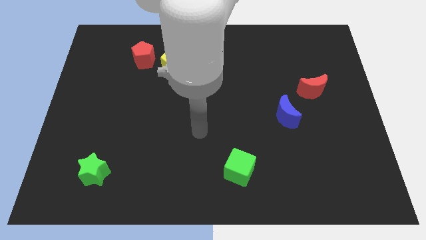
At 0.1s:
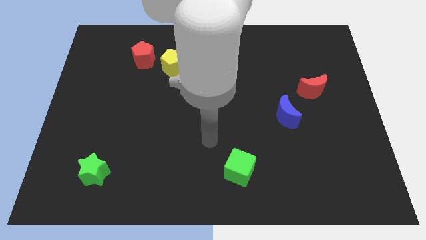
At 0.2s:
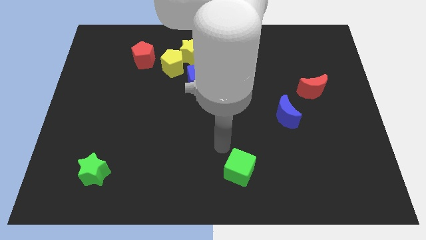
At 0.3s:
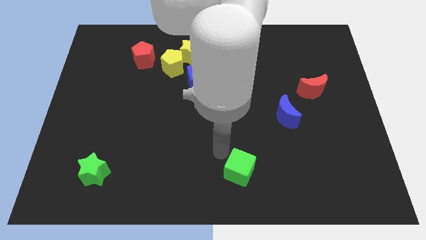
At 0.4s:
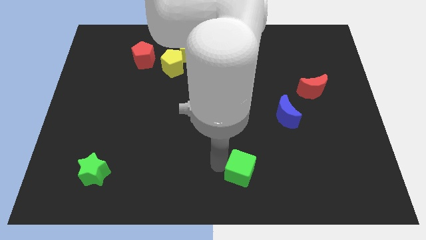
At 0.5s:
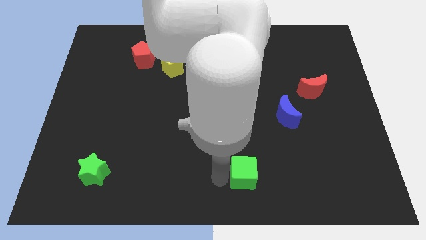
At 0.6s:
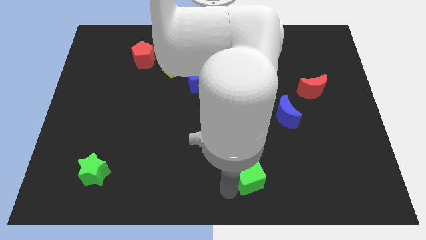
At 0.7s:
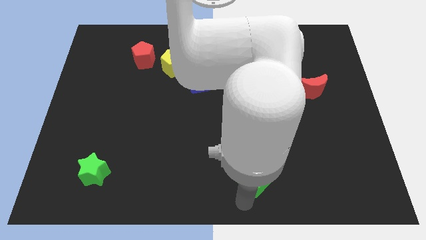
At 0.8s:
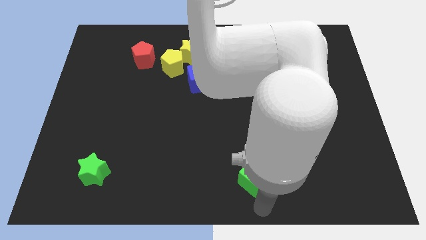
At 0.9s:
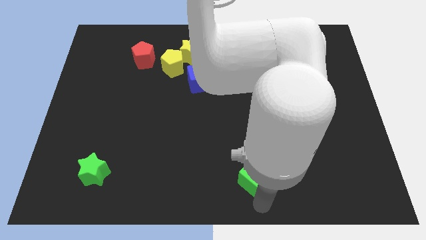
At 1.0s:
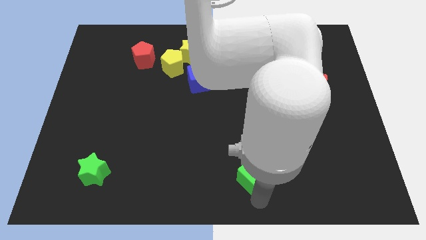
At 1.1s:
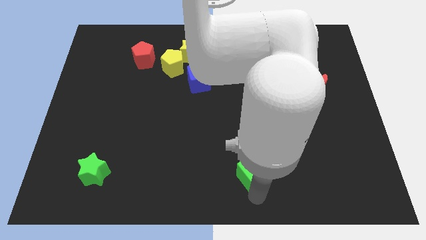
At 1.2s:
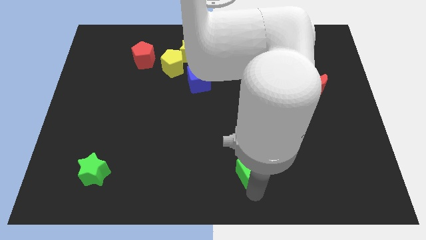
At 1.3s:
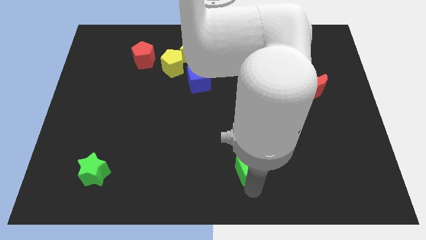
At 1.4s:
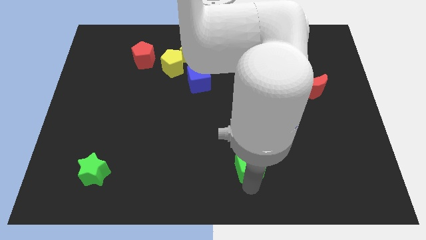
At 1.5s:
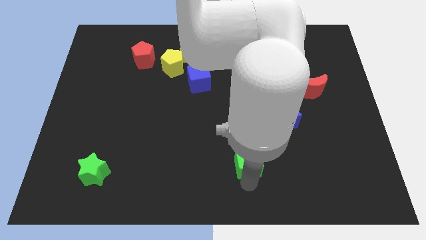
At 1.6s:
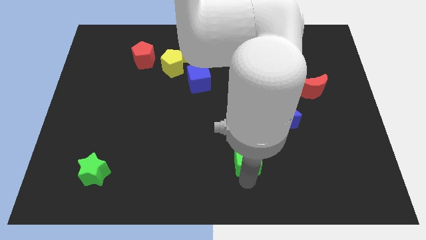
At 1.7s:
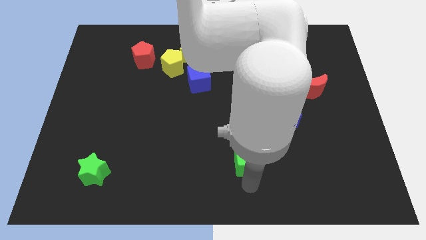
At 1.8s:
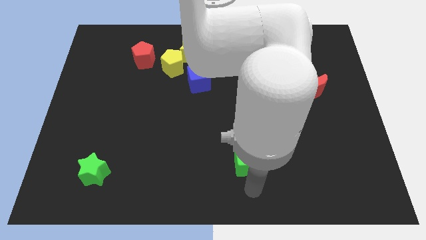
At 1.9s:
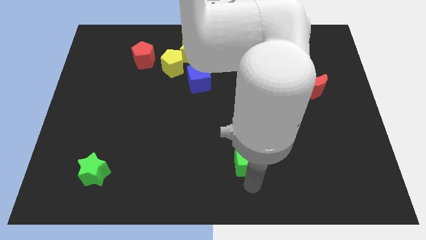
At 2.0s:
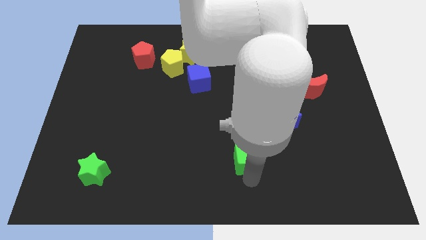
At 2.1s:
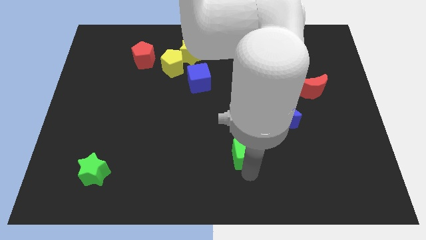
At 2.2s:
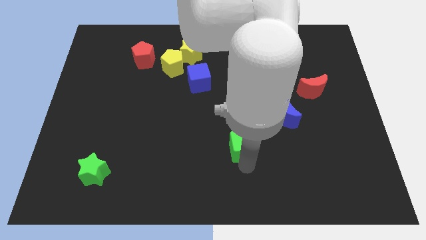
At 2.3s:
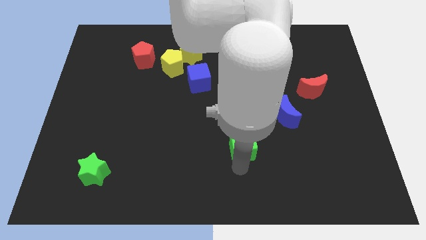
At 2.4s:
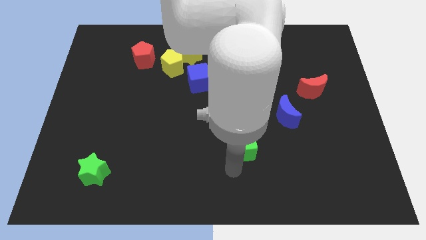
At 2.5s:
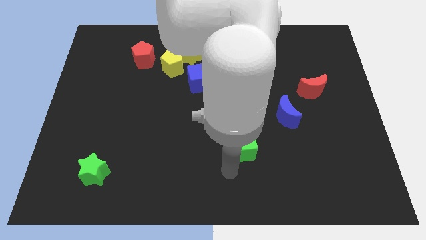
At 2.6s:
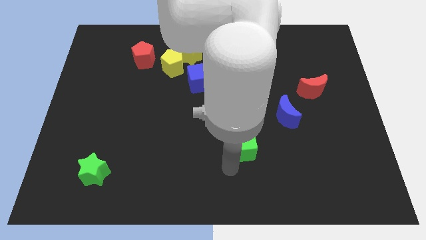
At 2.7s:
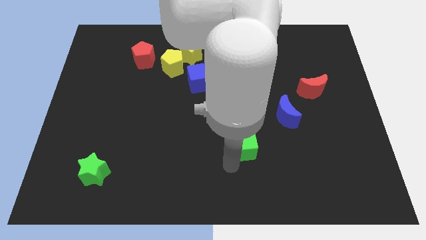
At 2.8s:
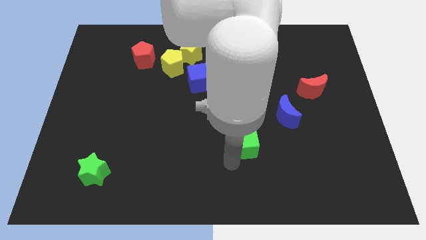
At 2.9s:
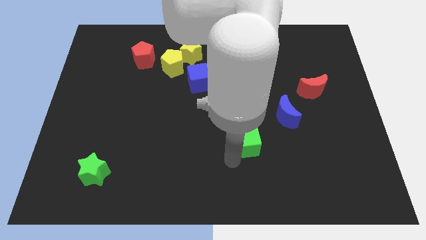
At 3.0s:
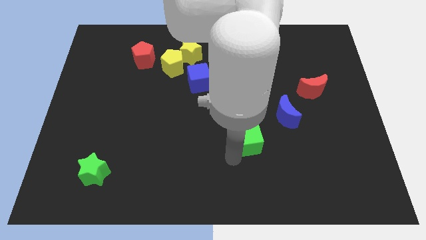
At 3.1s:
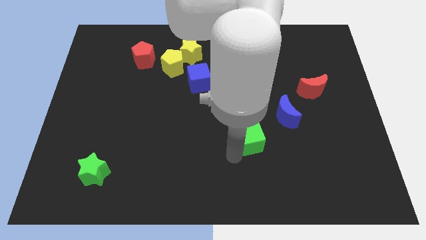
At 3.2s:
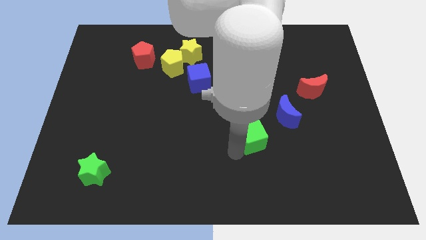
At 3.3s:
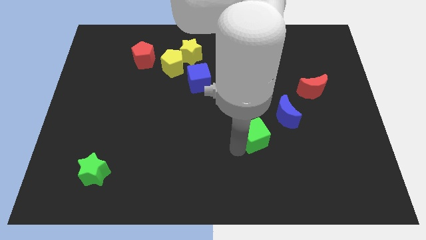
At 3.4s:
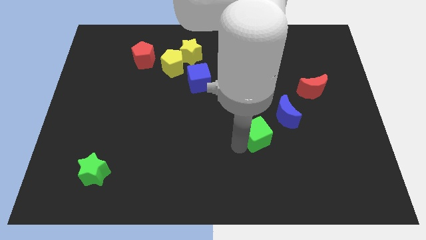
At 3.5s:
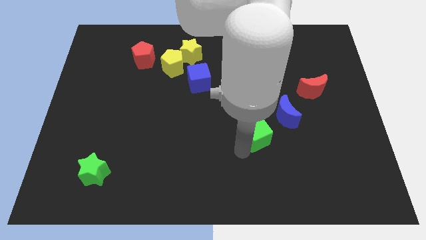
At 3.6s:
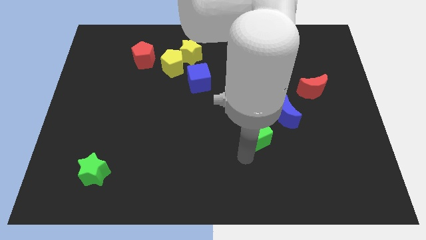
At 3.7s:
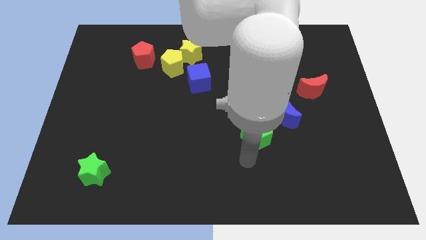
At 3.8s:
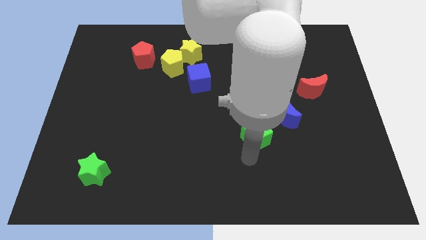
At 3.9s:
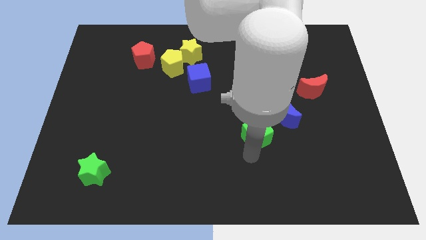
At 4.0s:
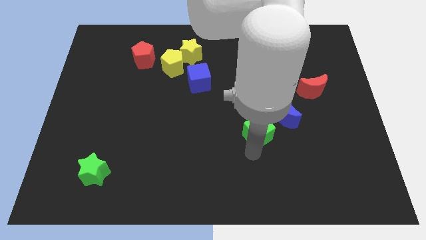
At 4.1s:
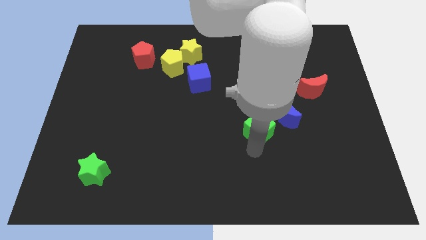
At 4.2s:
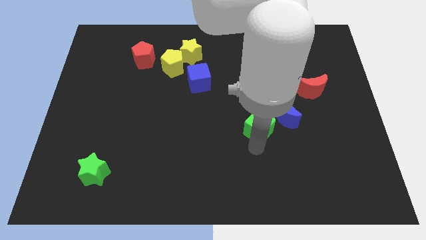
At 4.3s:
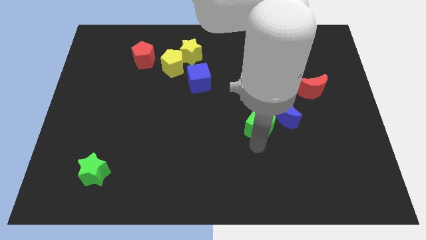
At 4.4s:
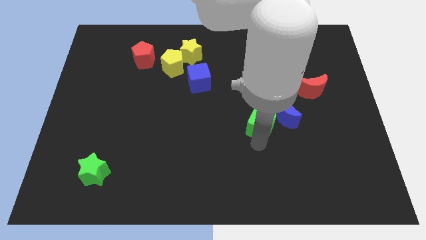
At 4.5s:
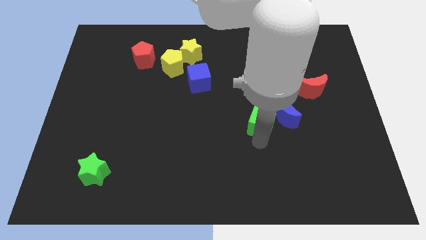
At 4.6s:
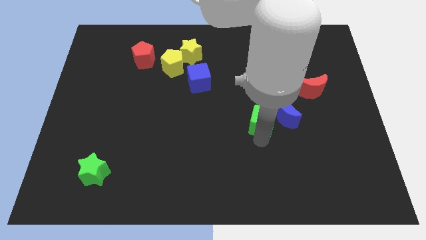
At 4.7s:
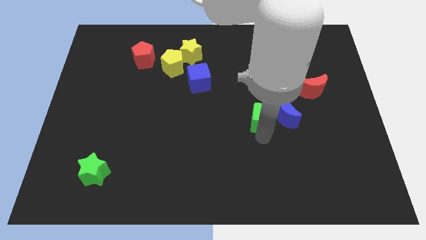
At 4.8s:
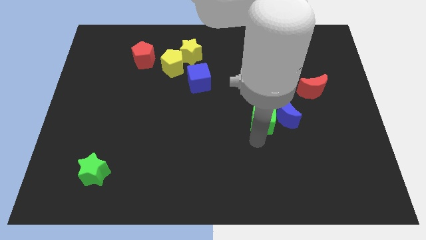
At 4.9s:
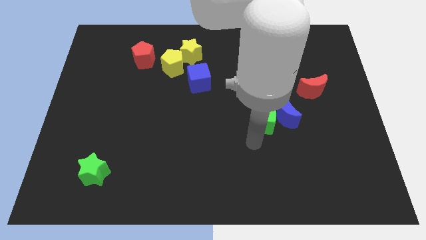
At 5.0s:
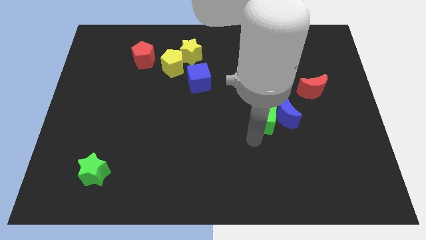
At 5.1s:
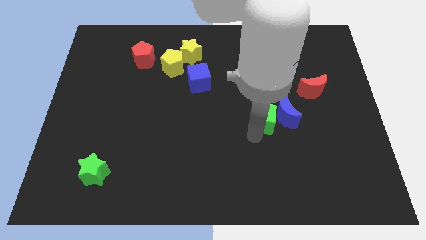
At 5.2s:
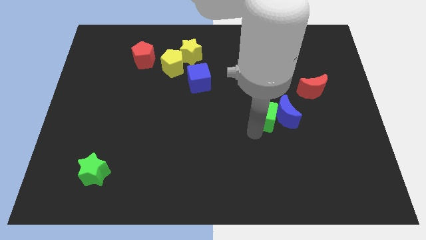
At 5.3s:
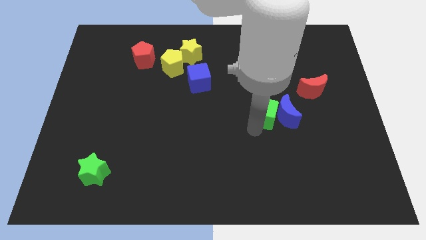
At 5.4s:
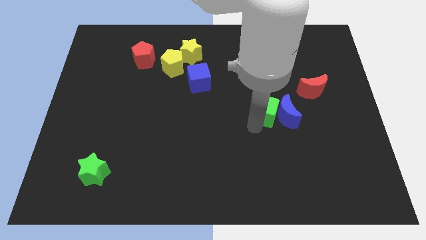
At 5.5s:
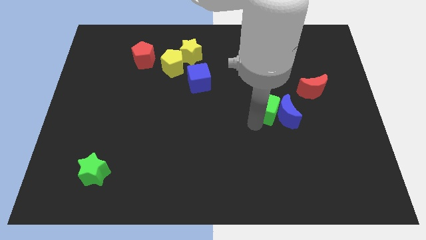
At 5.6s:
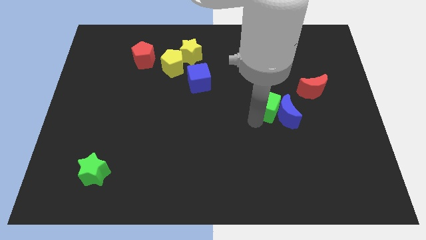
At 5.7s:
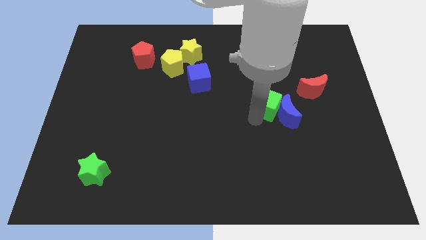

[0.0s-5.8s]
put the green cube above the blue moon

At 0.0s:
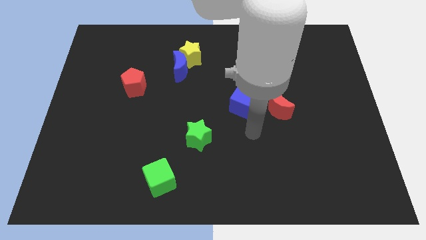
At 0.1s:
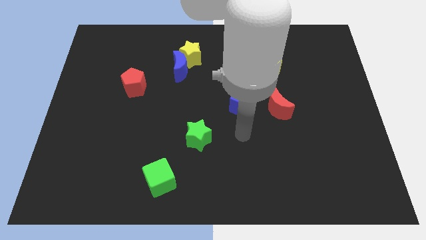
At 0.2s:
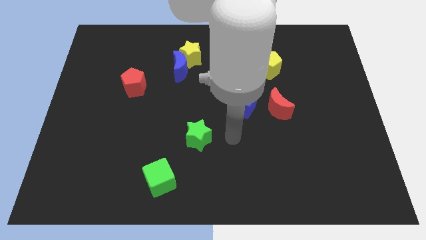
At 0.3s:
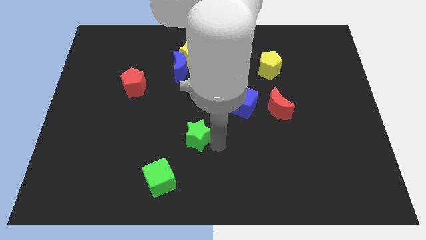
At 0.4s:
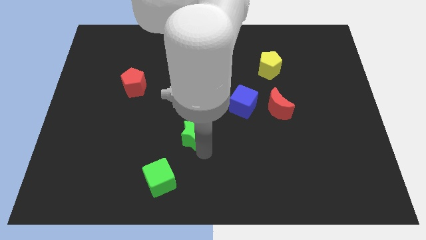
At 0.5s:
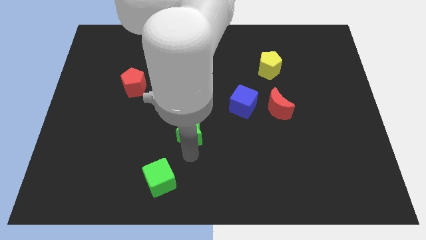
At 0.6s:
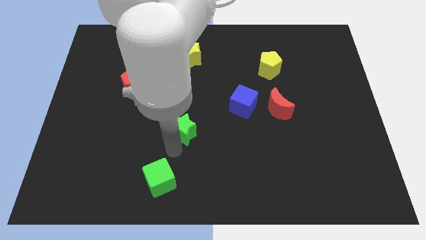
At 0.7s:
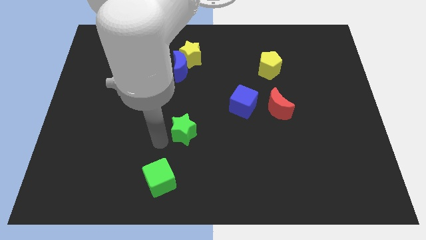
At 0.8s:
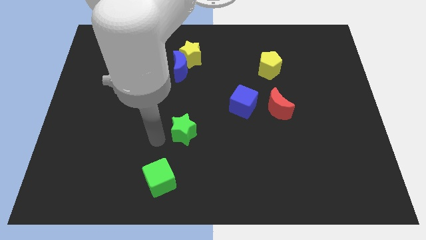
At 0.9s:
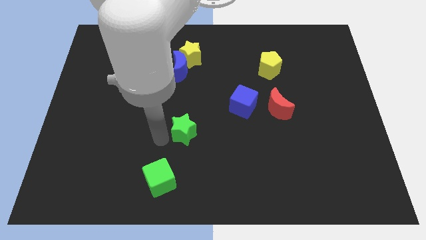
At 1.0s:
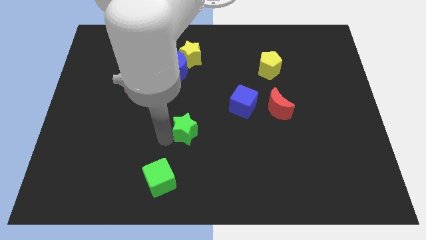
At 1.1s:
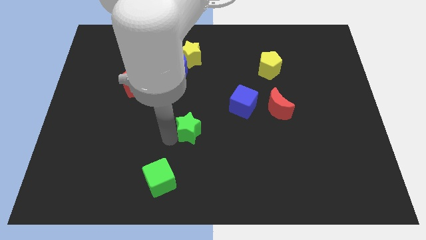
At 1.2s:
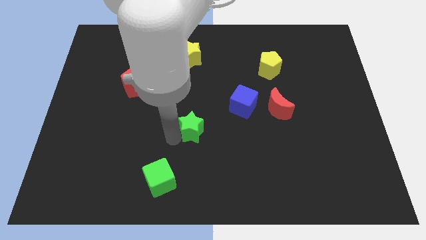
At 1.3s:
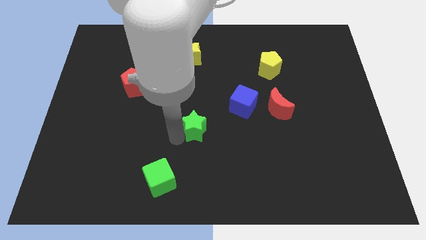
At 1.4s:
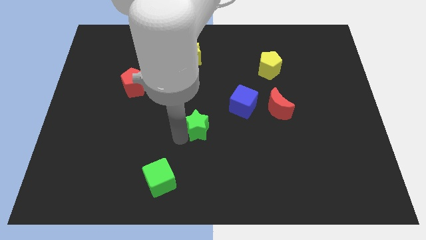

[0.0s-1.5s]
move the green star to the bottom left of the blue cube
